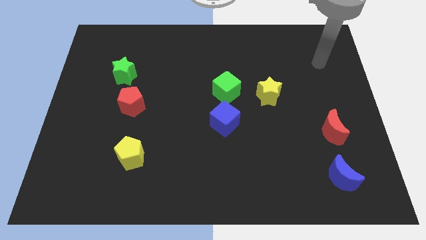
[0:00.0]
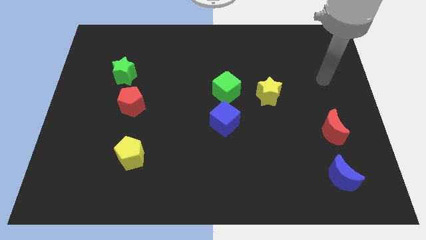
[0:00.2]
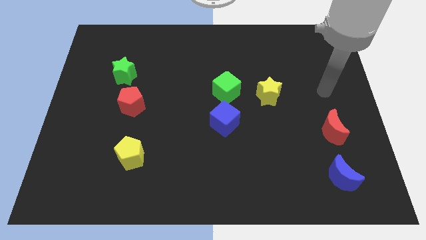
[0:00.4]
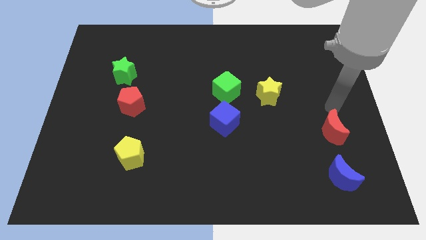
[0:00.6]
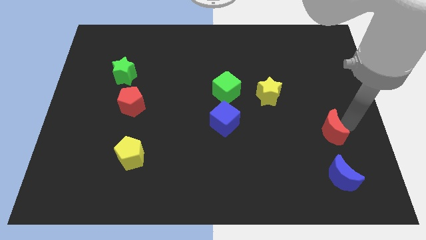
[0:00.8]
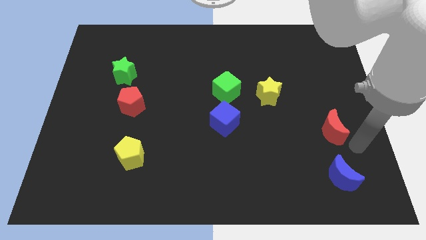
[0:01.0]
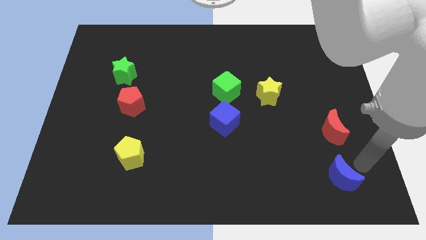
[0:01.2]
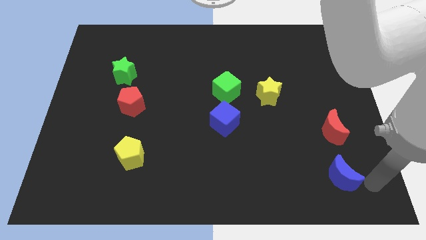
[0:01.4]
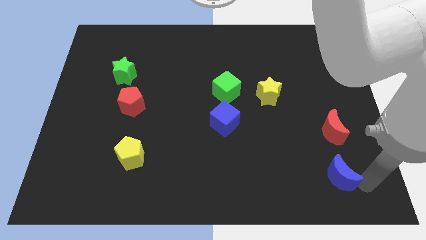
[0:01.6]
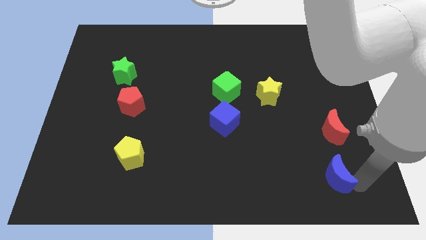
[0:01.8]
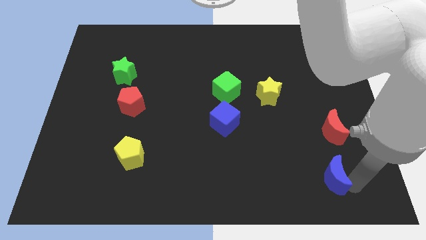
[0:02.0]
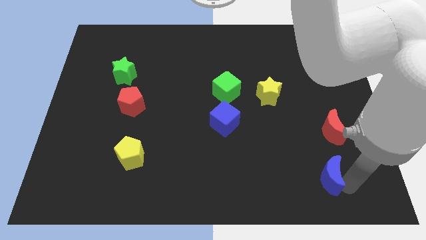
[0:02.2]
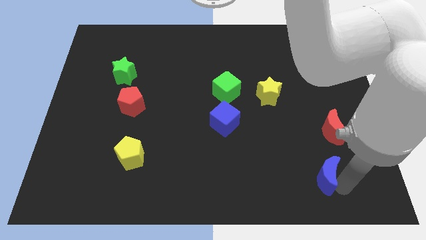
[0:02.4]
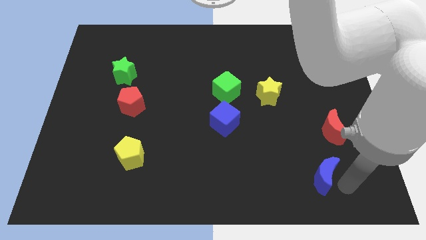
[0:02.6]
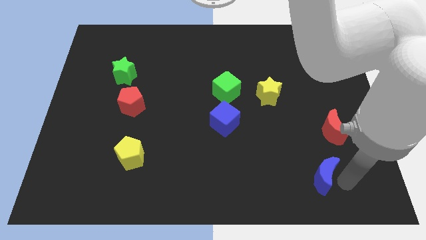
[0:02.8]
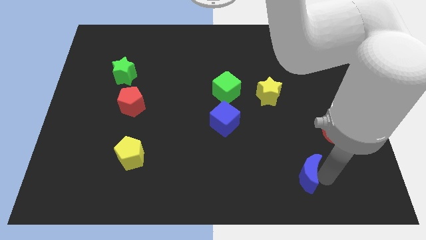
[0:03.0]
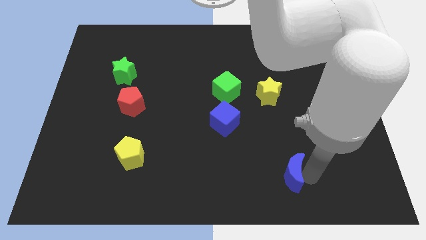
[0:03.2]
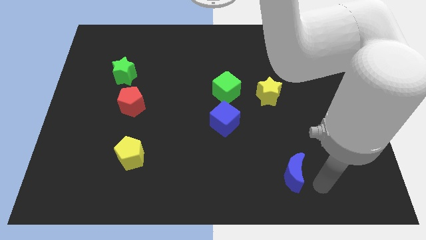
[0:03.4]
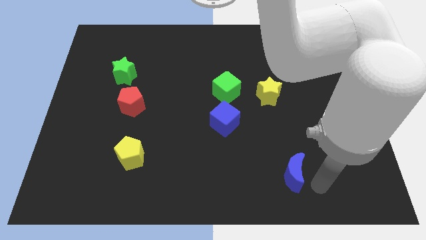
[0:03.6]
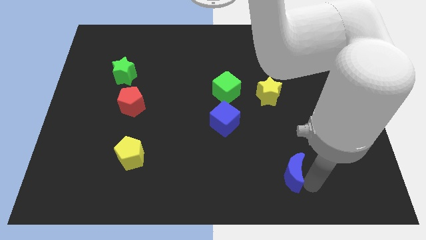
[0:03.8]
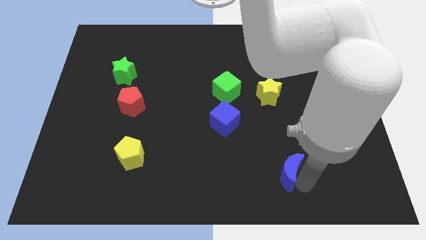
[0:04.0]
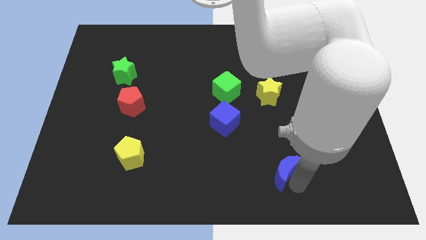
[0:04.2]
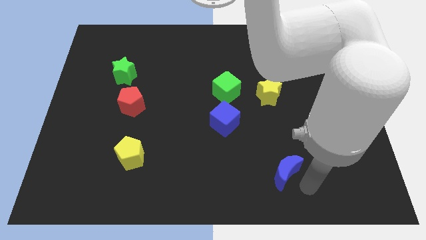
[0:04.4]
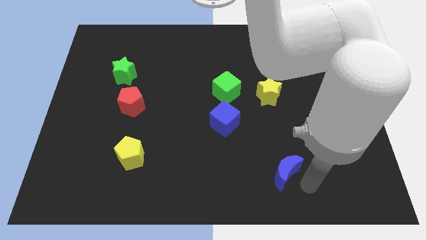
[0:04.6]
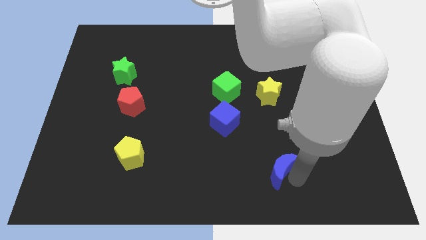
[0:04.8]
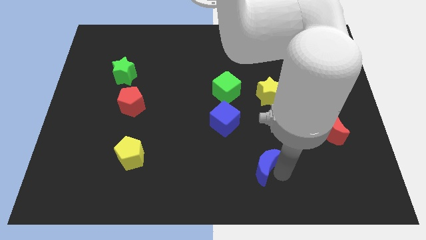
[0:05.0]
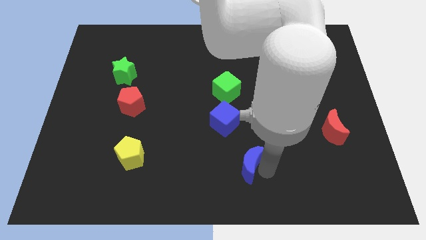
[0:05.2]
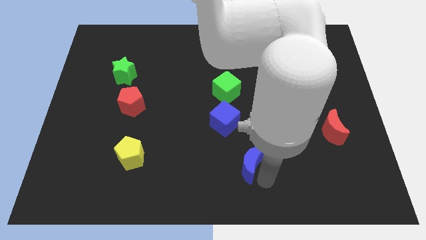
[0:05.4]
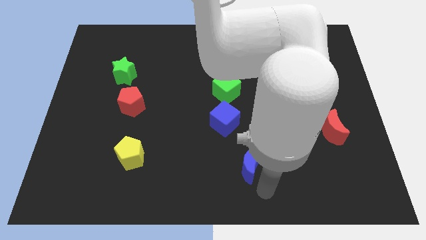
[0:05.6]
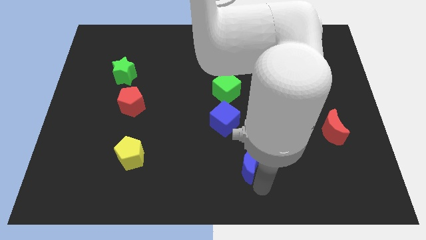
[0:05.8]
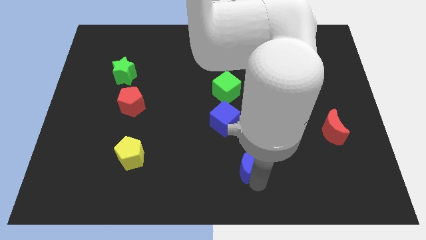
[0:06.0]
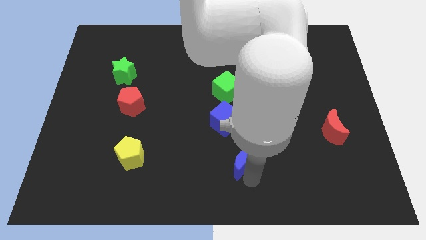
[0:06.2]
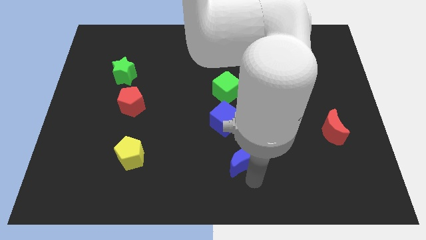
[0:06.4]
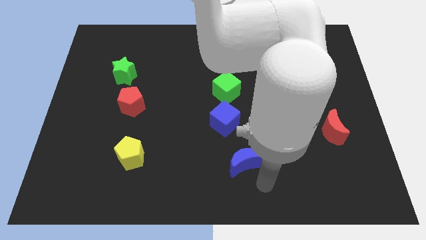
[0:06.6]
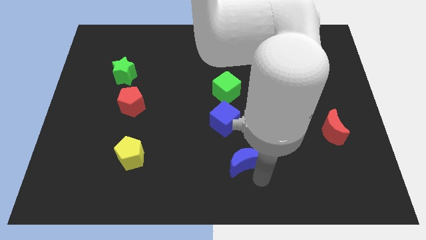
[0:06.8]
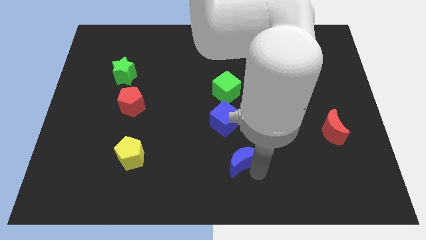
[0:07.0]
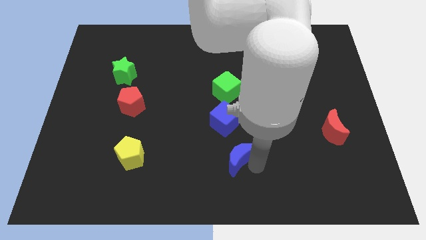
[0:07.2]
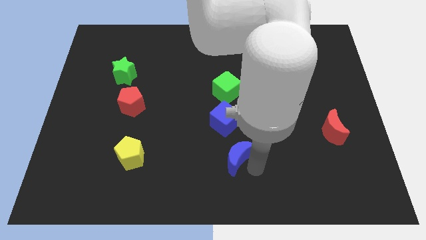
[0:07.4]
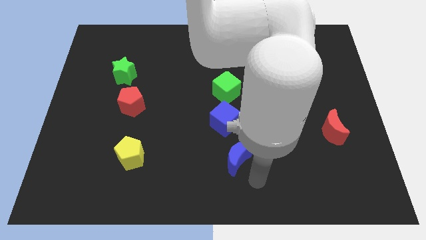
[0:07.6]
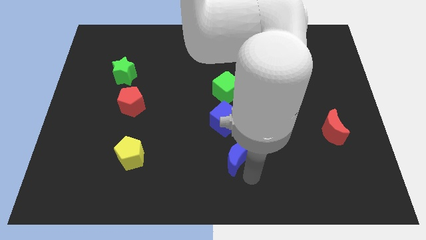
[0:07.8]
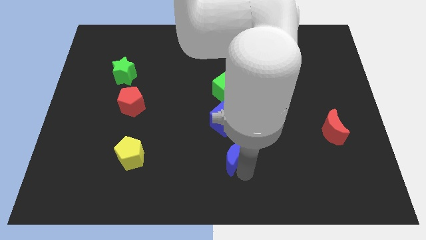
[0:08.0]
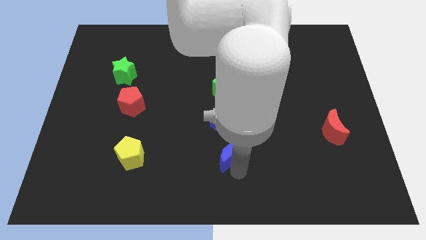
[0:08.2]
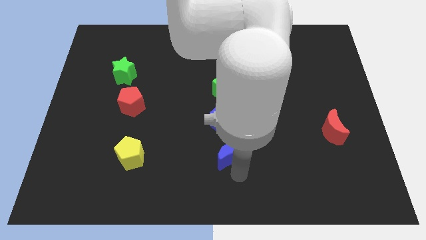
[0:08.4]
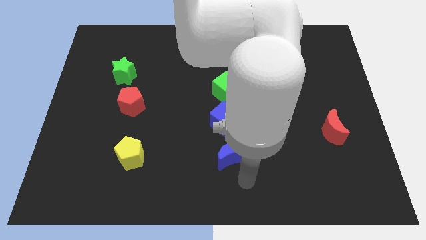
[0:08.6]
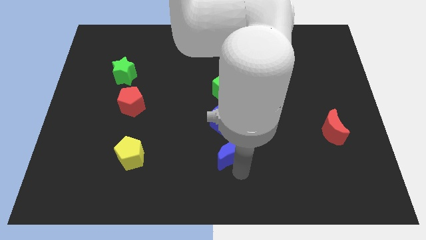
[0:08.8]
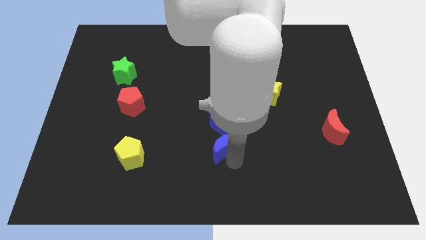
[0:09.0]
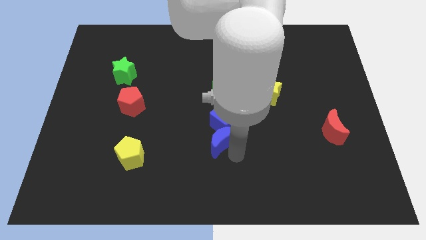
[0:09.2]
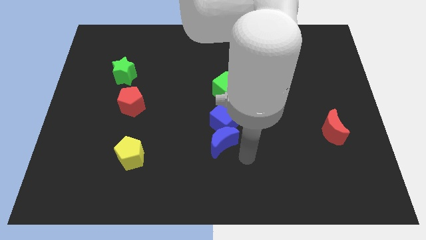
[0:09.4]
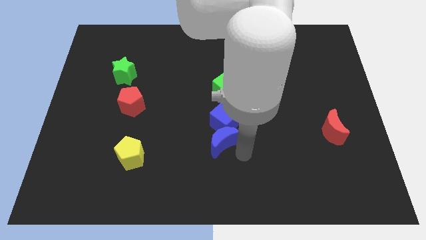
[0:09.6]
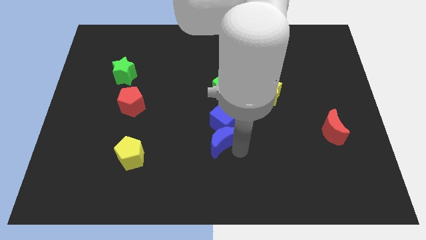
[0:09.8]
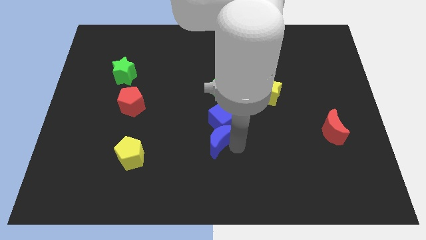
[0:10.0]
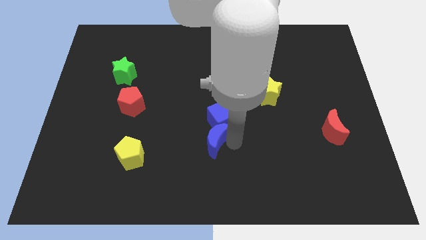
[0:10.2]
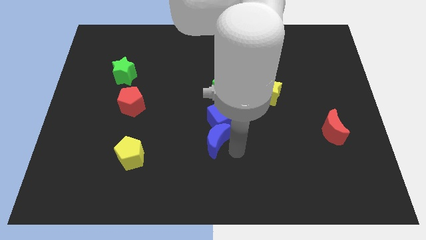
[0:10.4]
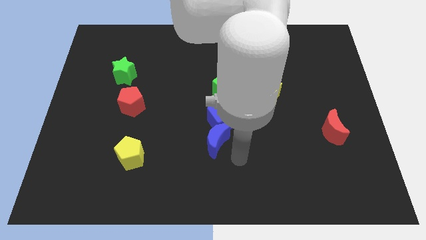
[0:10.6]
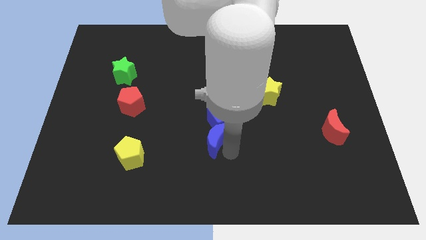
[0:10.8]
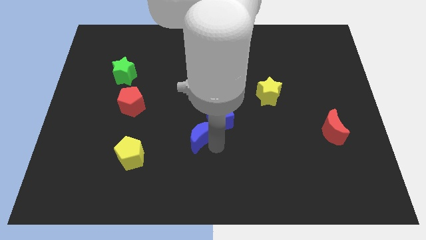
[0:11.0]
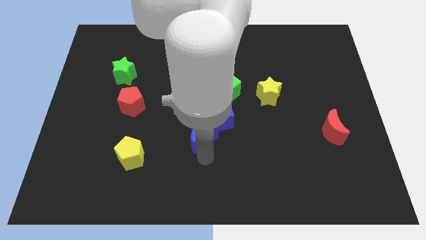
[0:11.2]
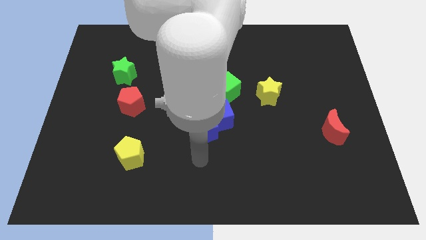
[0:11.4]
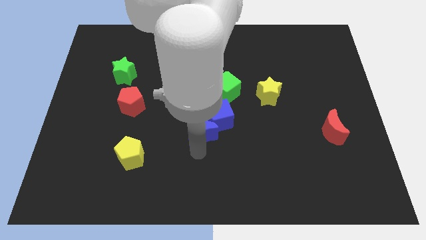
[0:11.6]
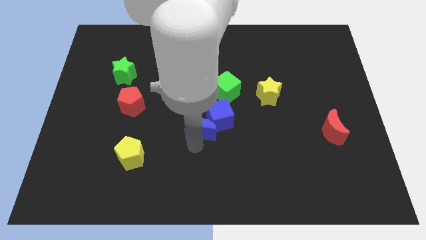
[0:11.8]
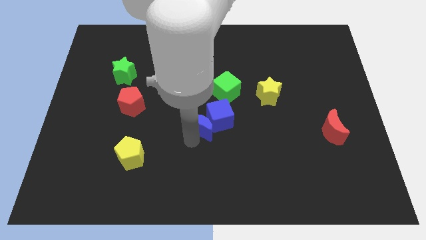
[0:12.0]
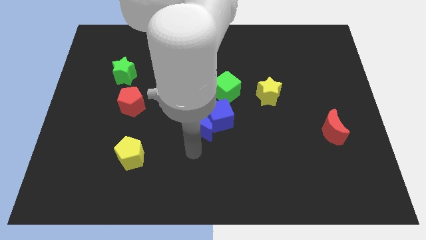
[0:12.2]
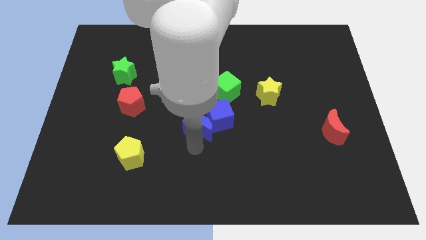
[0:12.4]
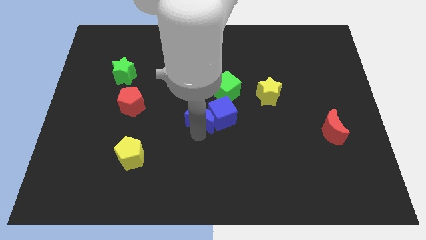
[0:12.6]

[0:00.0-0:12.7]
push the blue moon to the bottom left of the green cube

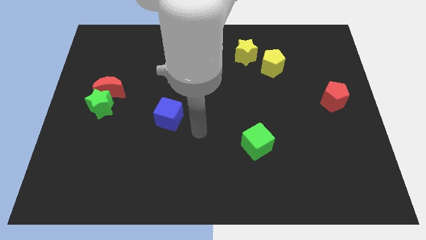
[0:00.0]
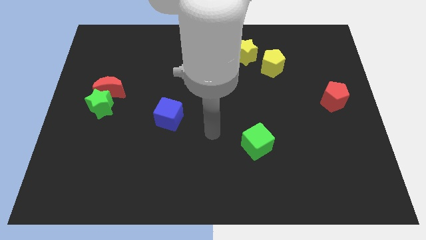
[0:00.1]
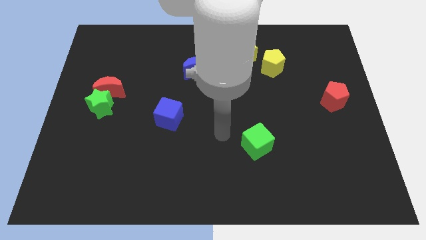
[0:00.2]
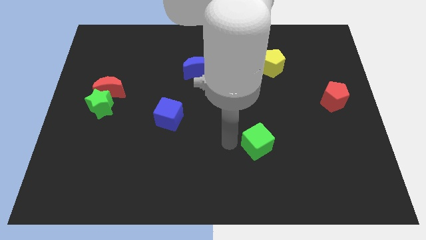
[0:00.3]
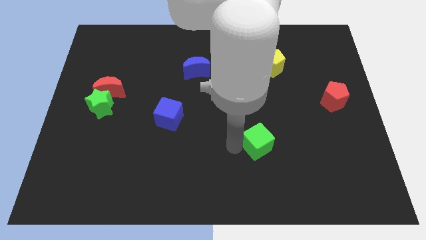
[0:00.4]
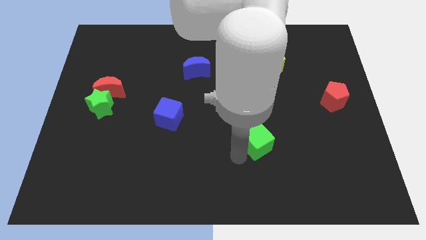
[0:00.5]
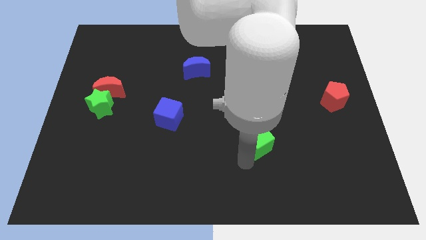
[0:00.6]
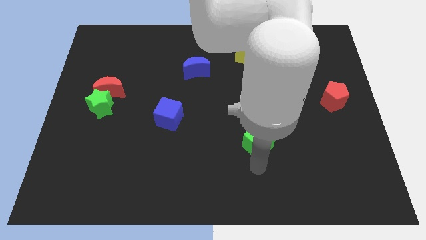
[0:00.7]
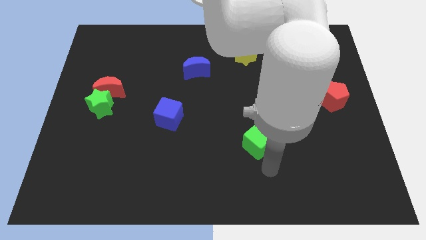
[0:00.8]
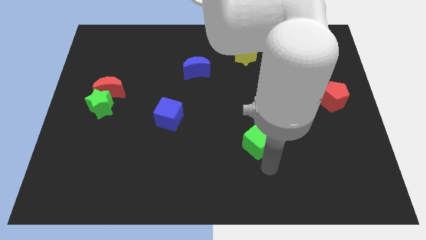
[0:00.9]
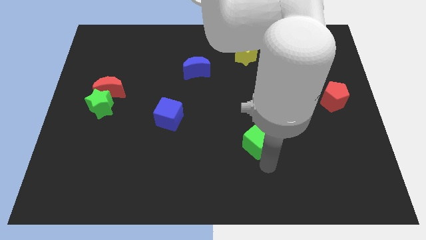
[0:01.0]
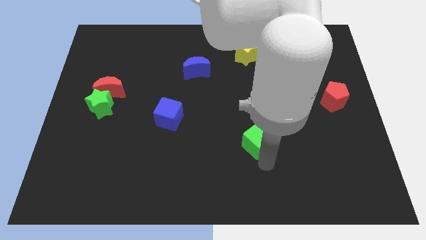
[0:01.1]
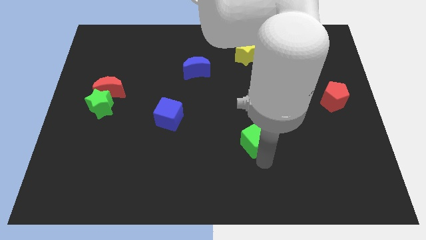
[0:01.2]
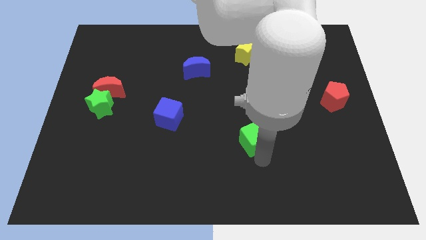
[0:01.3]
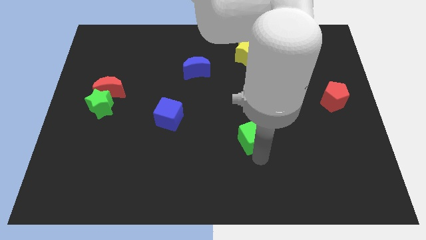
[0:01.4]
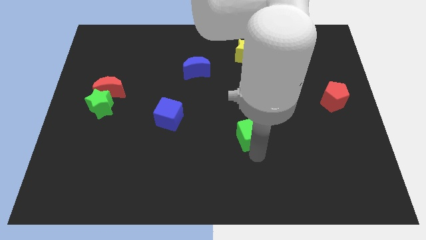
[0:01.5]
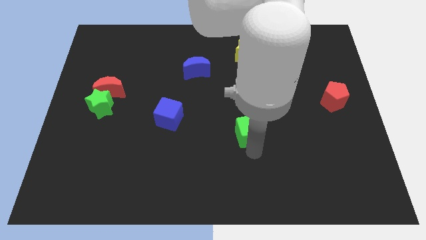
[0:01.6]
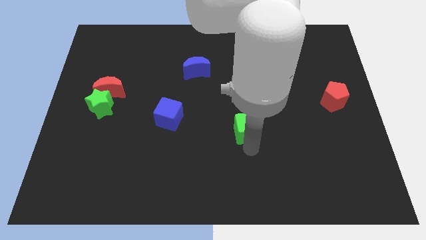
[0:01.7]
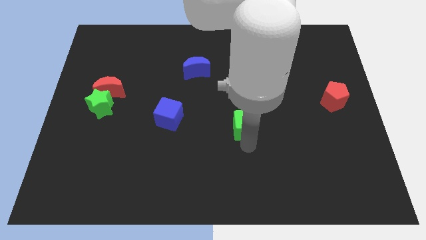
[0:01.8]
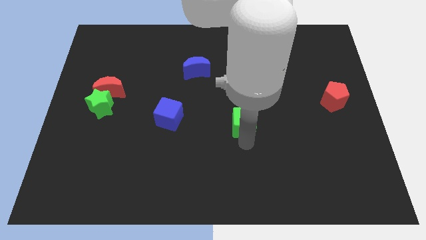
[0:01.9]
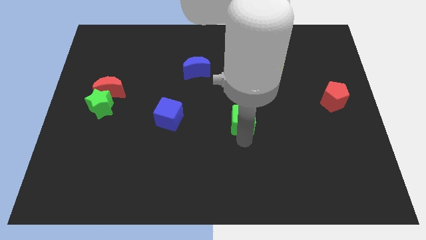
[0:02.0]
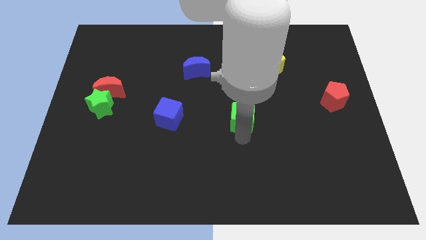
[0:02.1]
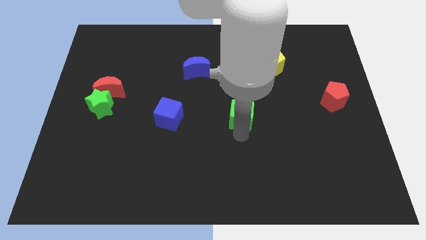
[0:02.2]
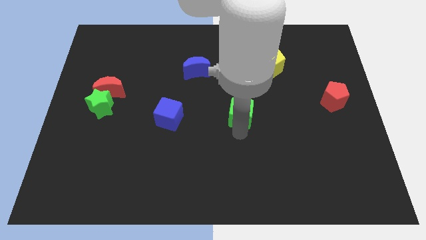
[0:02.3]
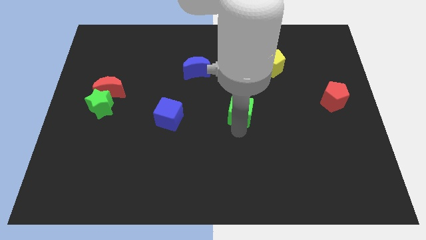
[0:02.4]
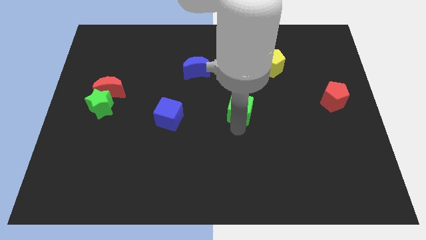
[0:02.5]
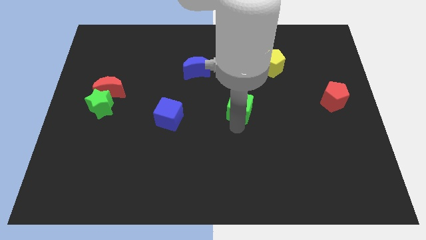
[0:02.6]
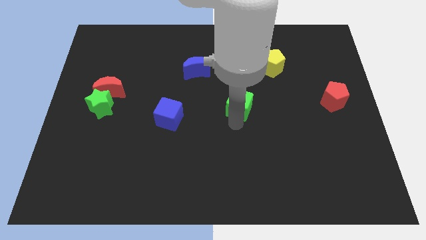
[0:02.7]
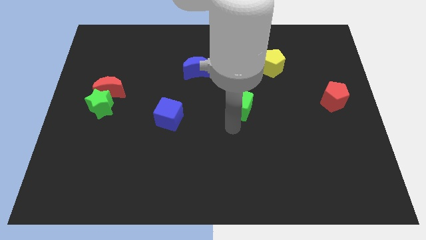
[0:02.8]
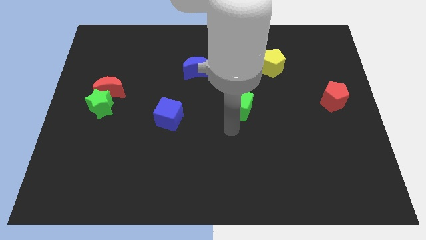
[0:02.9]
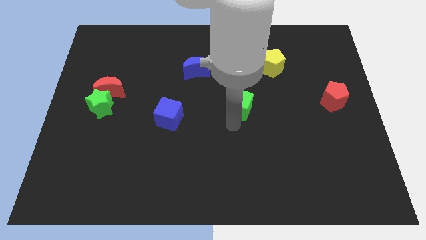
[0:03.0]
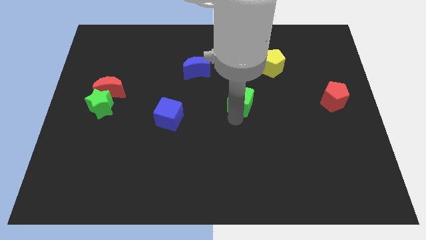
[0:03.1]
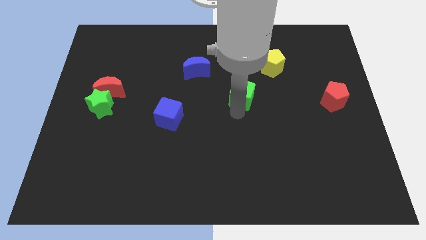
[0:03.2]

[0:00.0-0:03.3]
push the green cube to the bottom of the yellow star
